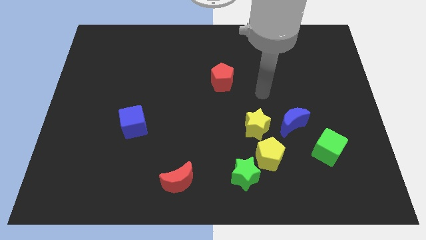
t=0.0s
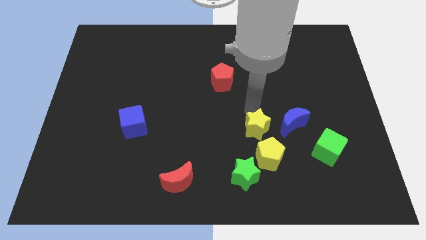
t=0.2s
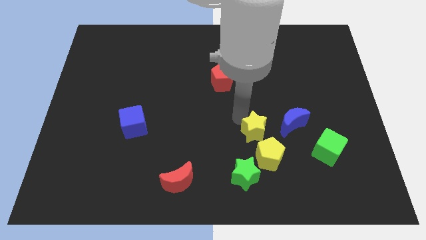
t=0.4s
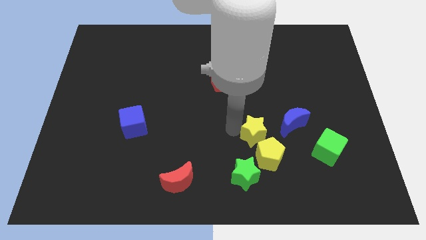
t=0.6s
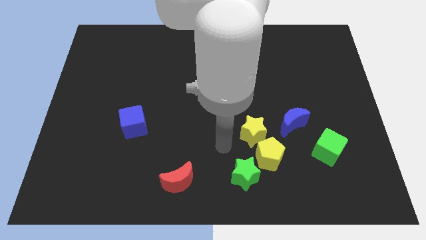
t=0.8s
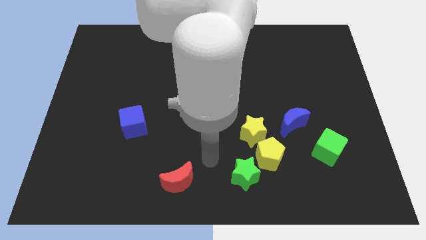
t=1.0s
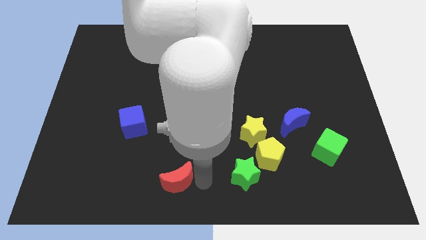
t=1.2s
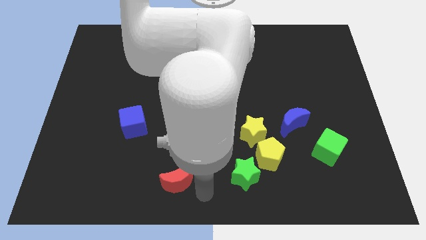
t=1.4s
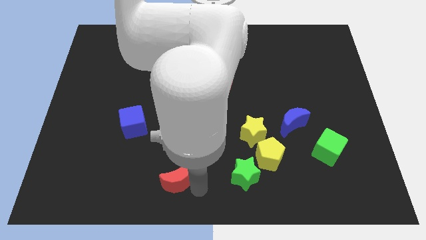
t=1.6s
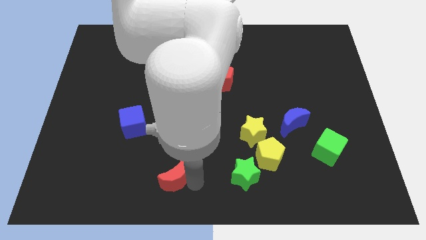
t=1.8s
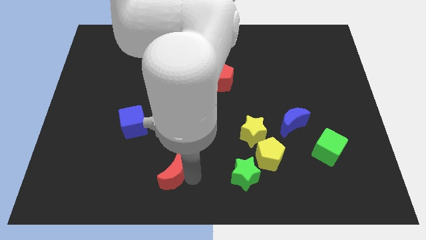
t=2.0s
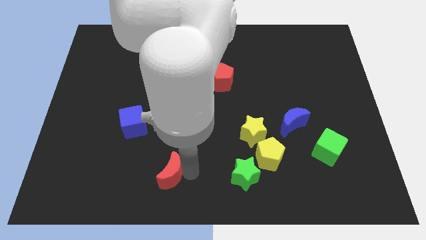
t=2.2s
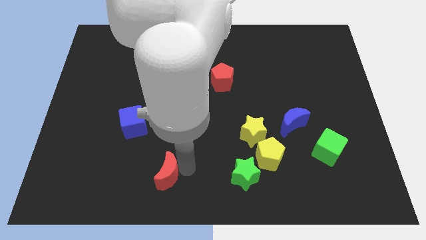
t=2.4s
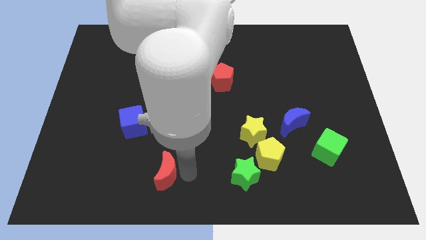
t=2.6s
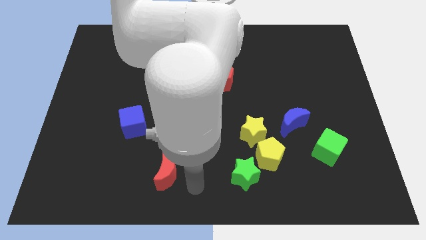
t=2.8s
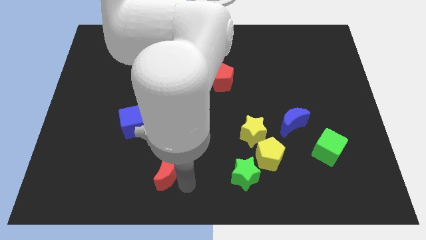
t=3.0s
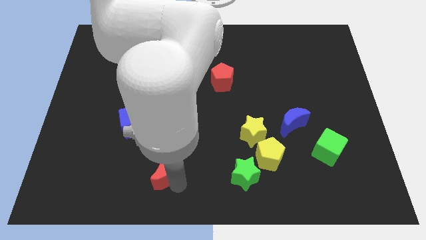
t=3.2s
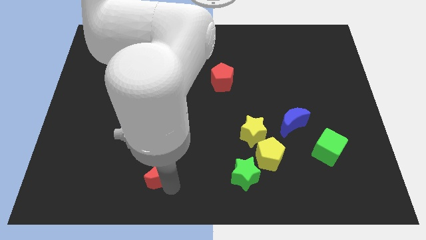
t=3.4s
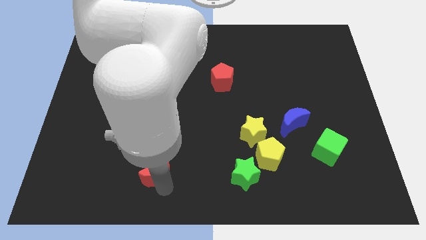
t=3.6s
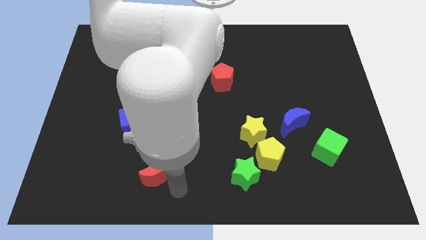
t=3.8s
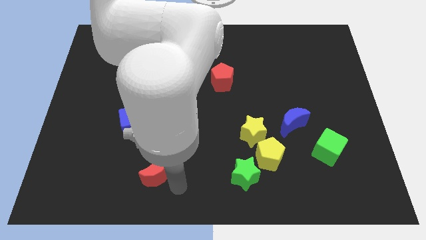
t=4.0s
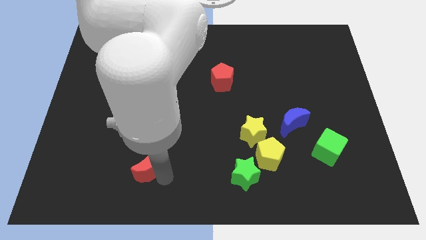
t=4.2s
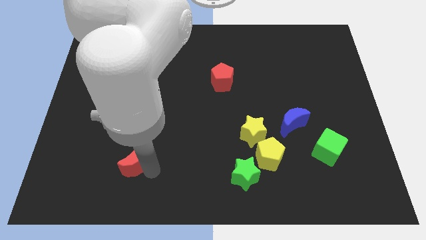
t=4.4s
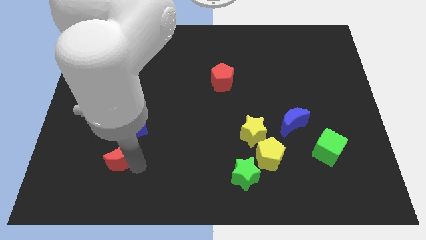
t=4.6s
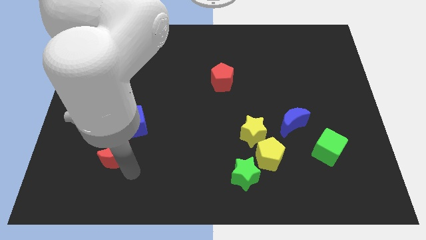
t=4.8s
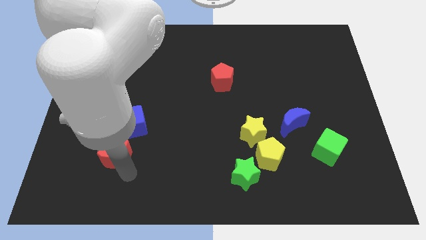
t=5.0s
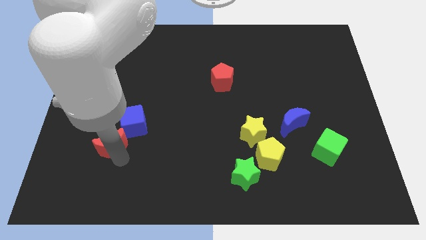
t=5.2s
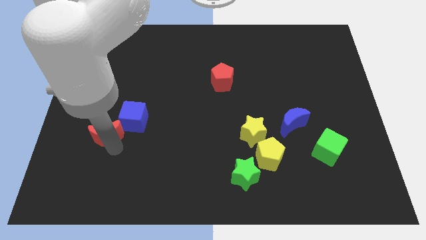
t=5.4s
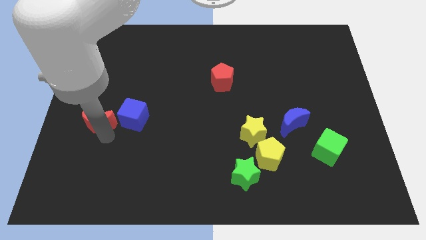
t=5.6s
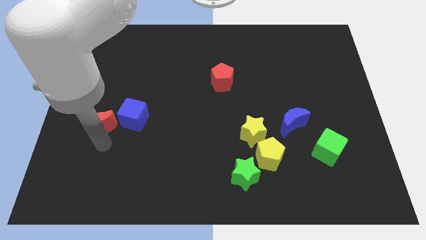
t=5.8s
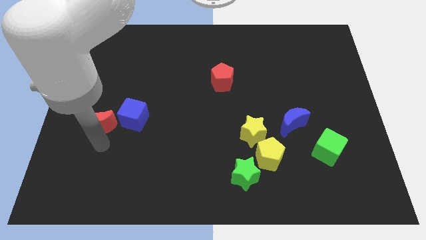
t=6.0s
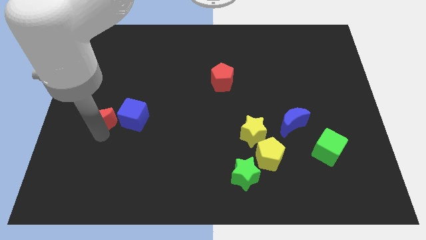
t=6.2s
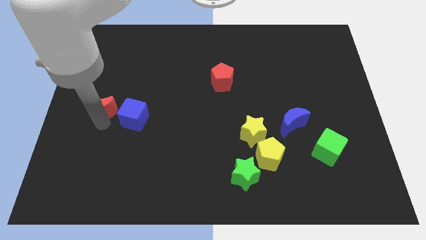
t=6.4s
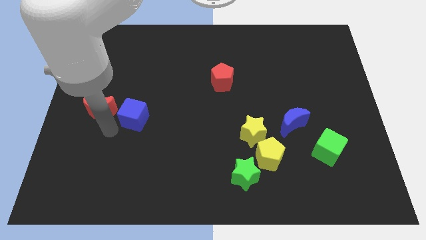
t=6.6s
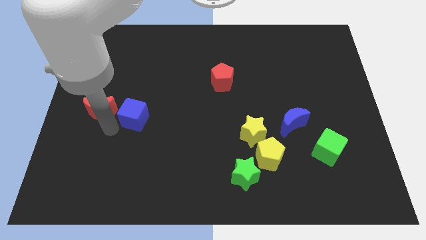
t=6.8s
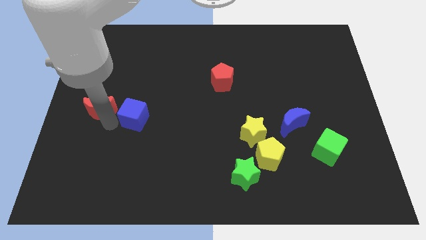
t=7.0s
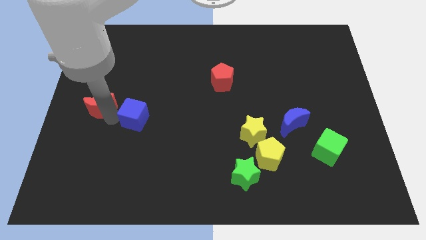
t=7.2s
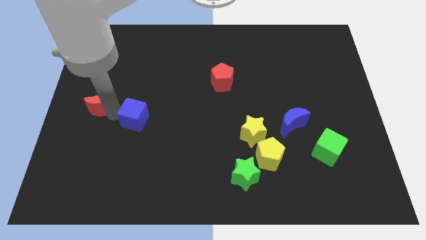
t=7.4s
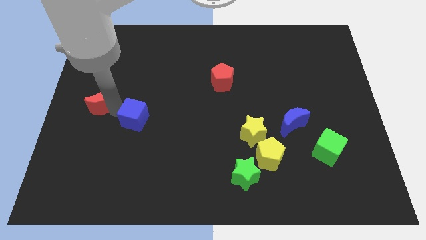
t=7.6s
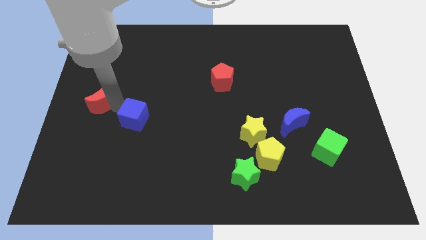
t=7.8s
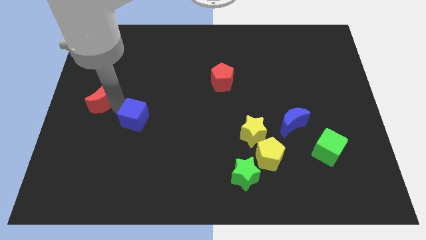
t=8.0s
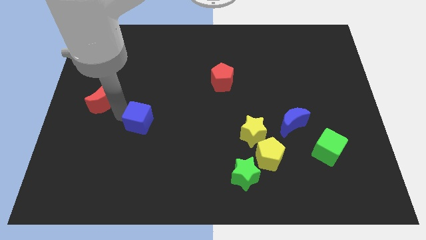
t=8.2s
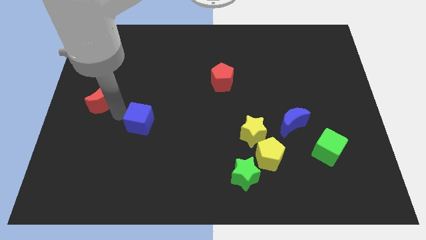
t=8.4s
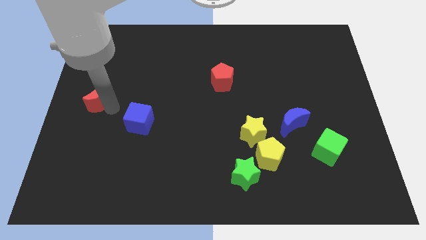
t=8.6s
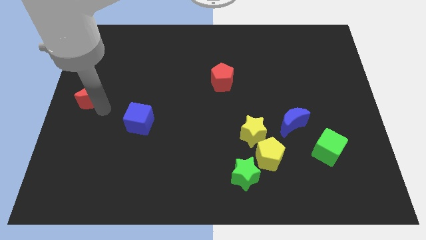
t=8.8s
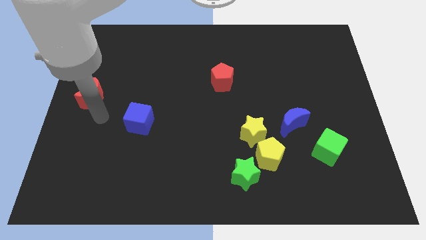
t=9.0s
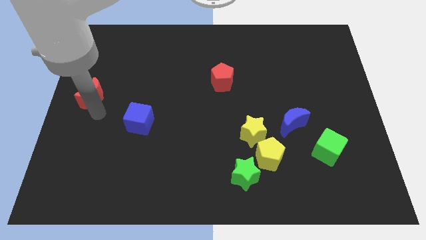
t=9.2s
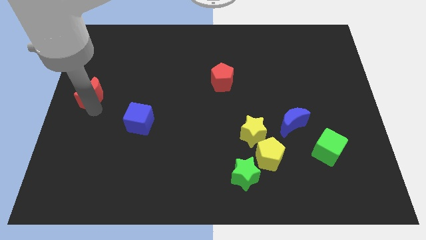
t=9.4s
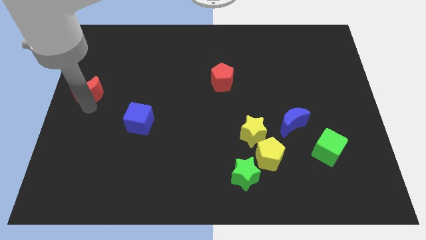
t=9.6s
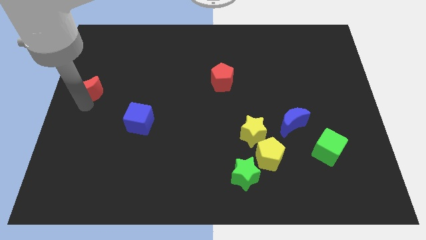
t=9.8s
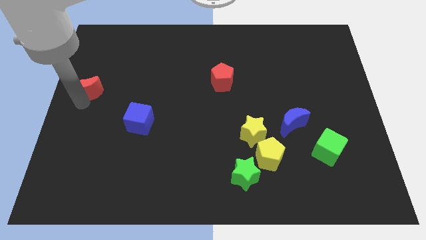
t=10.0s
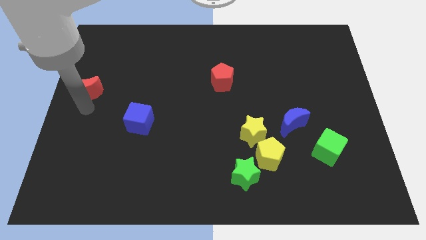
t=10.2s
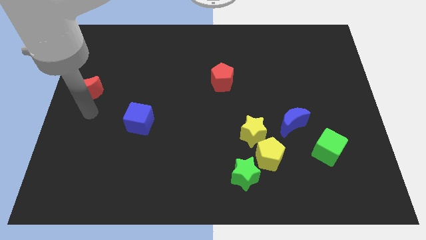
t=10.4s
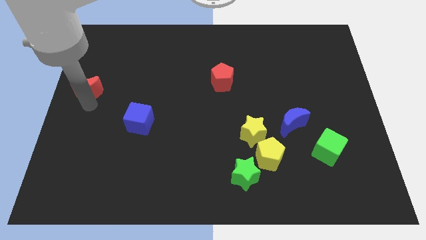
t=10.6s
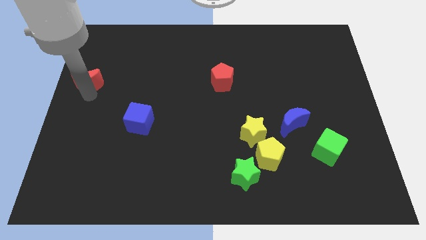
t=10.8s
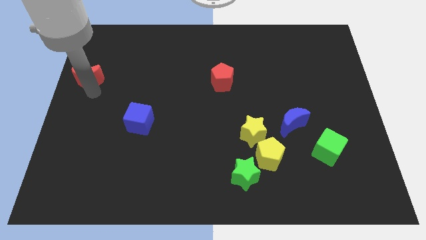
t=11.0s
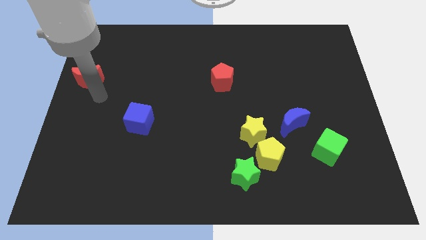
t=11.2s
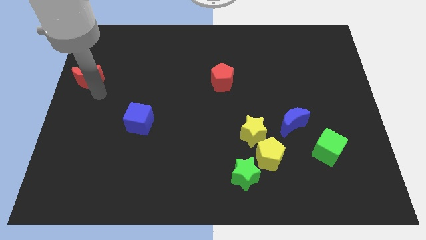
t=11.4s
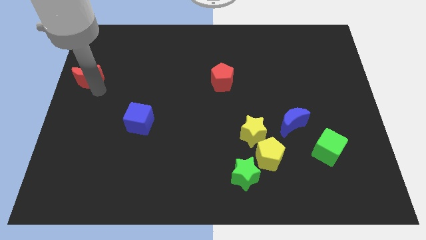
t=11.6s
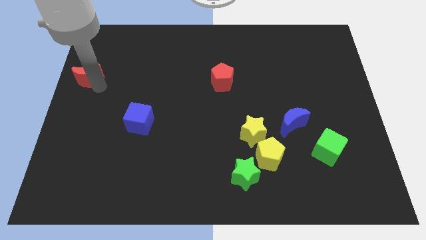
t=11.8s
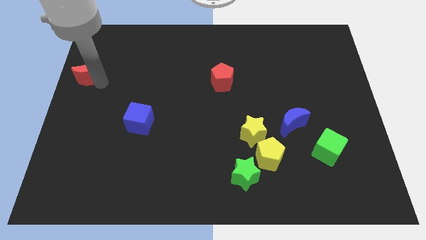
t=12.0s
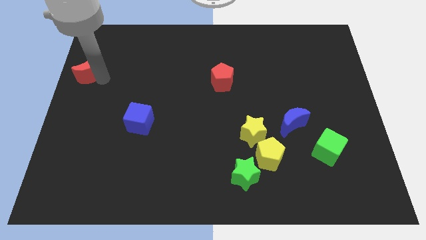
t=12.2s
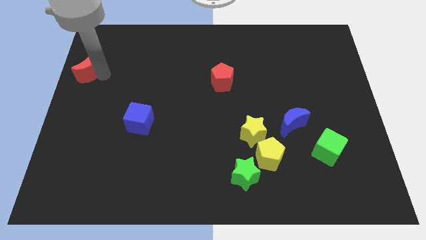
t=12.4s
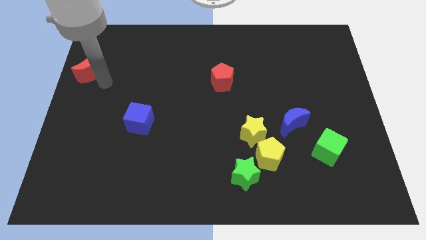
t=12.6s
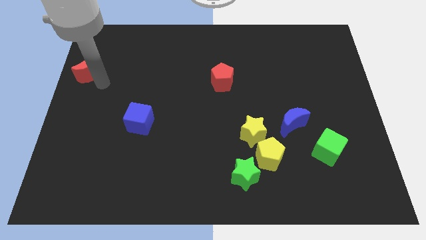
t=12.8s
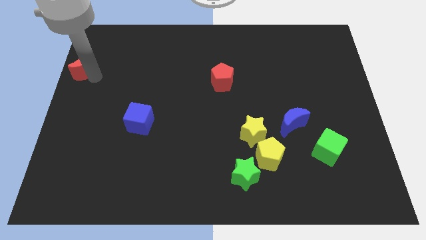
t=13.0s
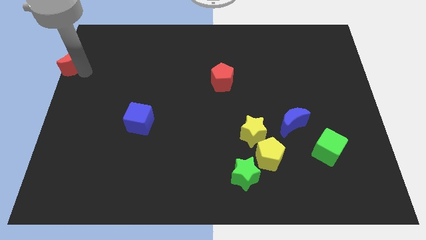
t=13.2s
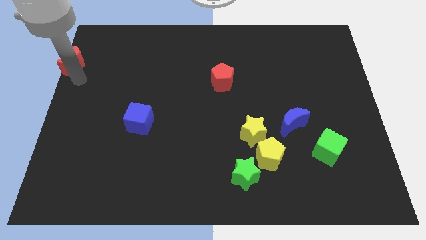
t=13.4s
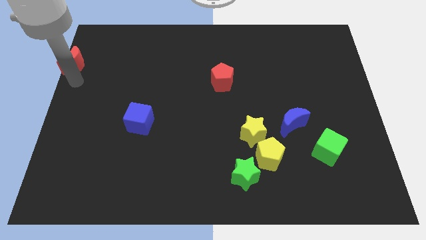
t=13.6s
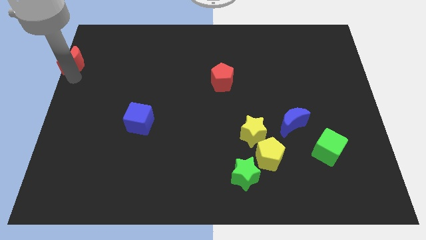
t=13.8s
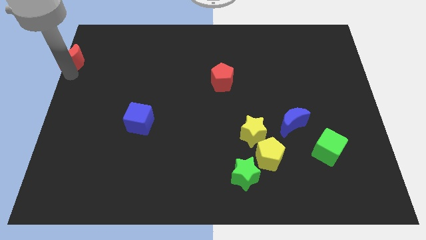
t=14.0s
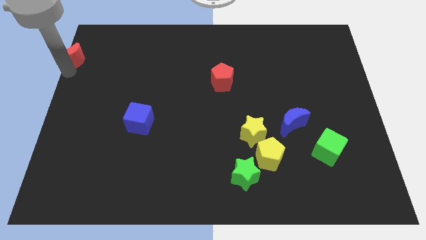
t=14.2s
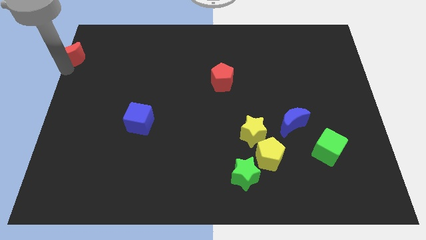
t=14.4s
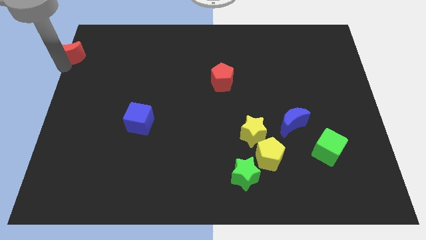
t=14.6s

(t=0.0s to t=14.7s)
put the red moon to the top left
